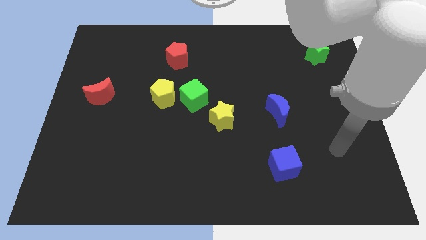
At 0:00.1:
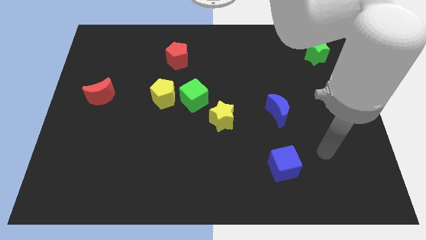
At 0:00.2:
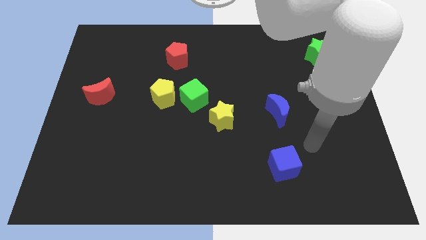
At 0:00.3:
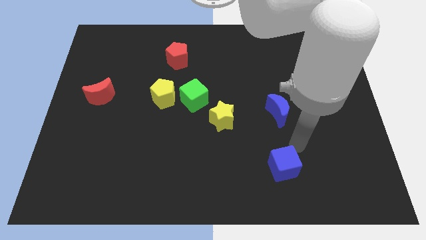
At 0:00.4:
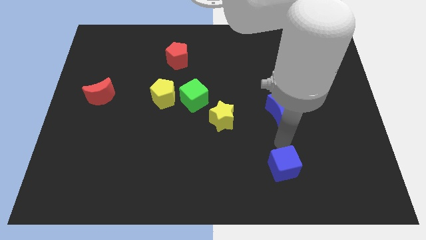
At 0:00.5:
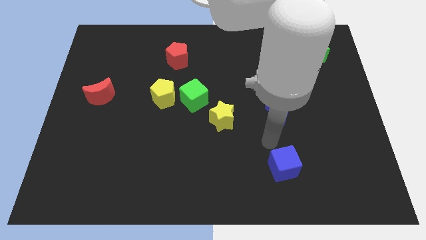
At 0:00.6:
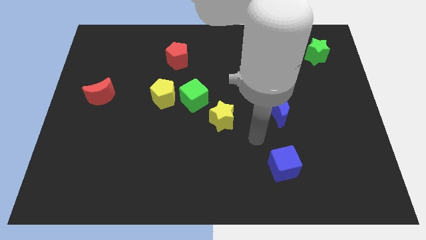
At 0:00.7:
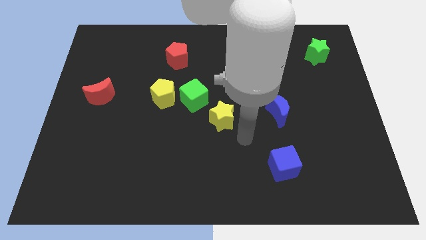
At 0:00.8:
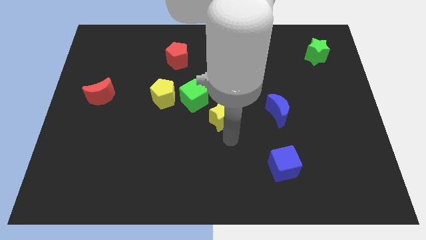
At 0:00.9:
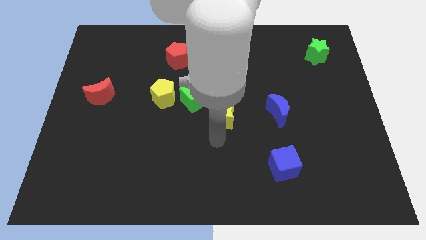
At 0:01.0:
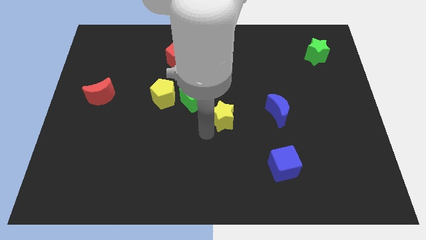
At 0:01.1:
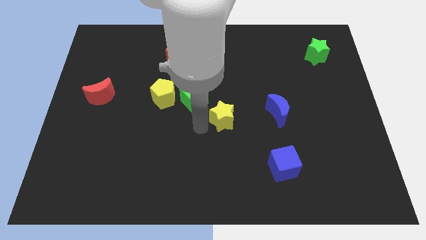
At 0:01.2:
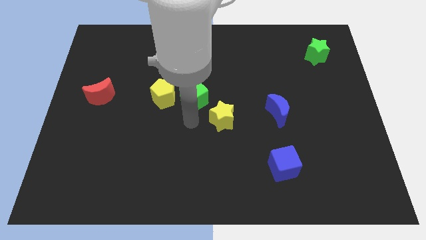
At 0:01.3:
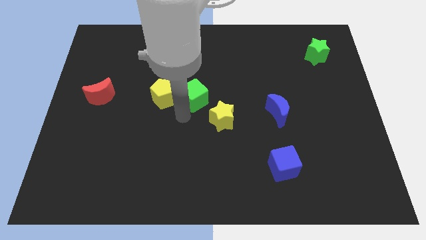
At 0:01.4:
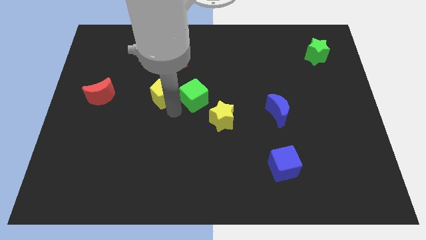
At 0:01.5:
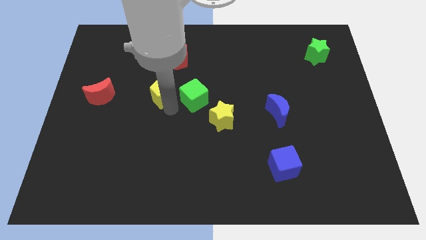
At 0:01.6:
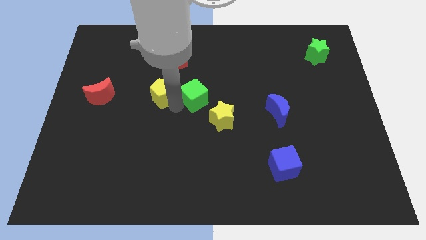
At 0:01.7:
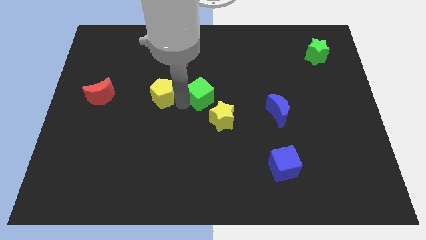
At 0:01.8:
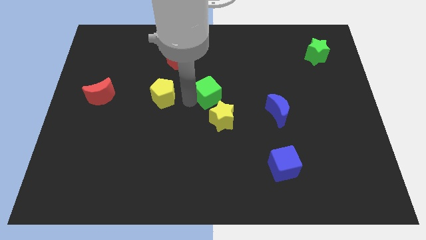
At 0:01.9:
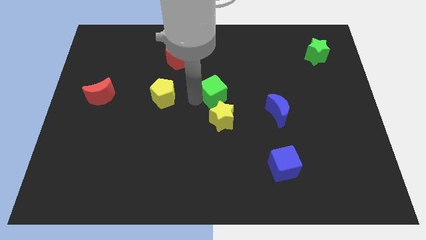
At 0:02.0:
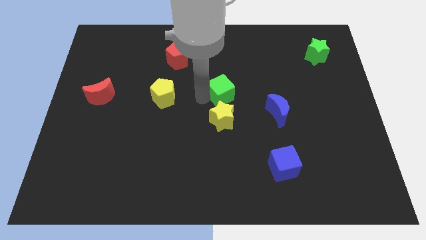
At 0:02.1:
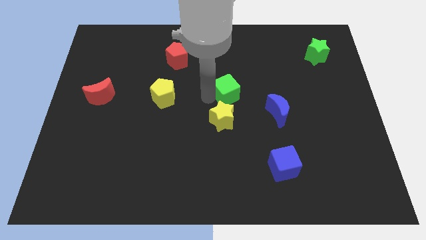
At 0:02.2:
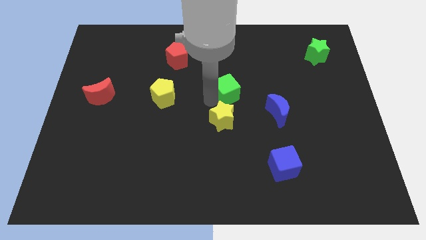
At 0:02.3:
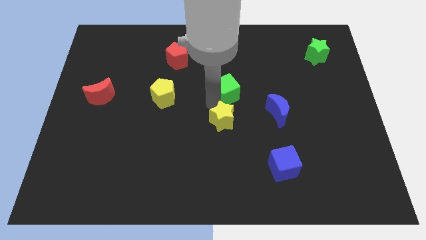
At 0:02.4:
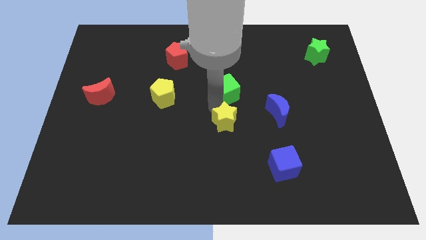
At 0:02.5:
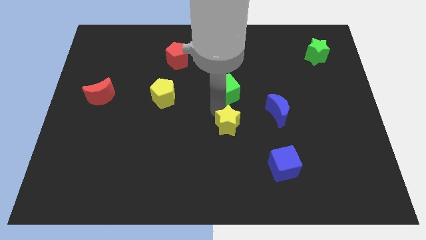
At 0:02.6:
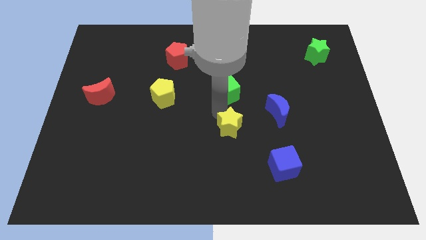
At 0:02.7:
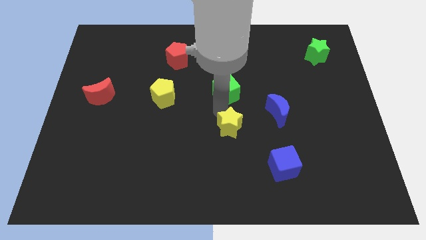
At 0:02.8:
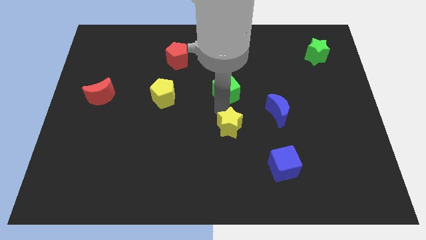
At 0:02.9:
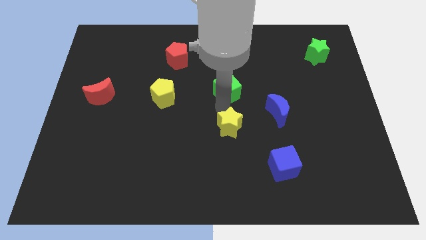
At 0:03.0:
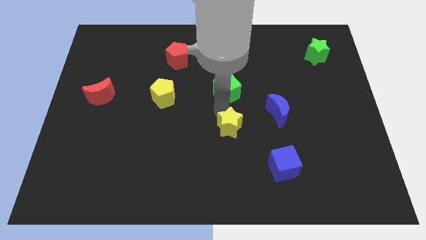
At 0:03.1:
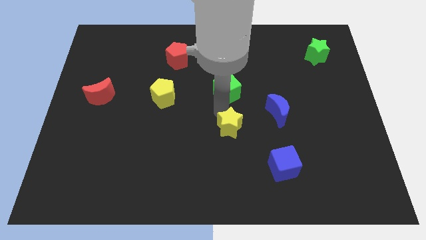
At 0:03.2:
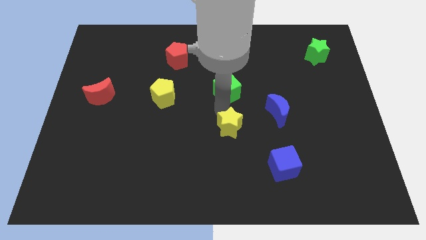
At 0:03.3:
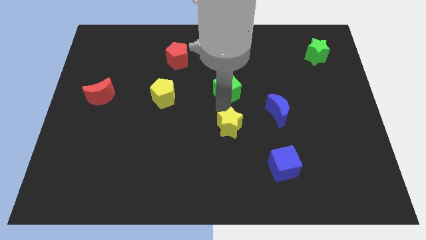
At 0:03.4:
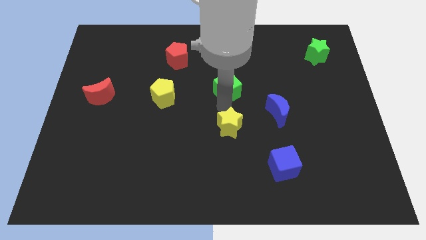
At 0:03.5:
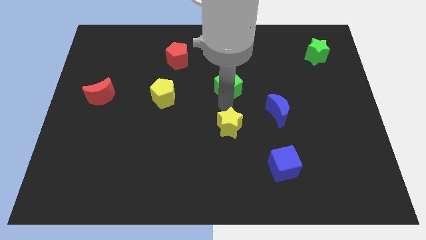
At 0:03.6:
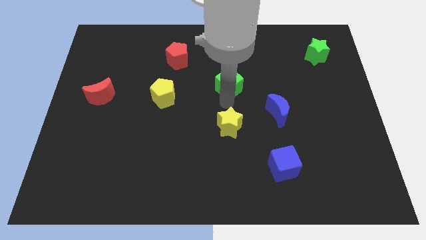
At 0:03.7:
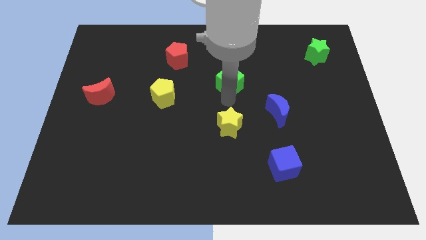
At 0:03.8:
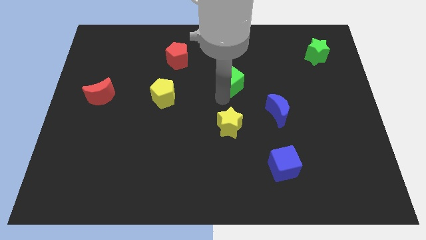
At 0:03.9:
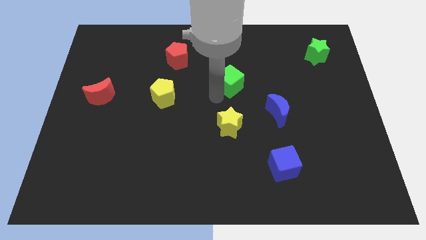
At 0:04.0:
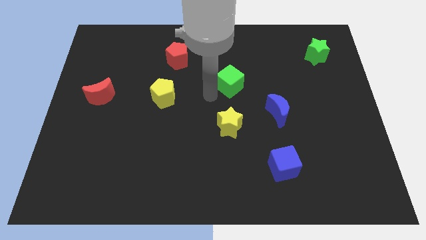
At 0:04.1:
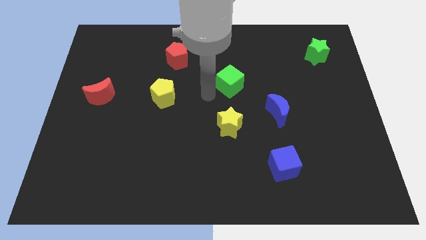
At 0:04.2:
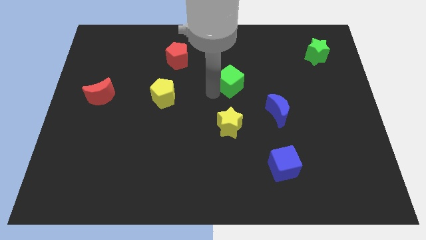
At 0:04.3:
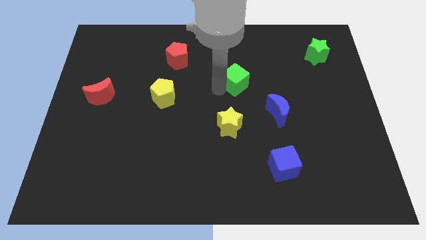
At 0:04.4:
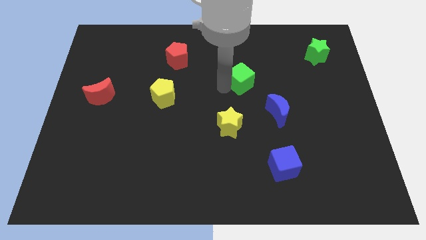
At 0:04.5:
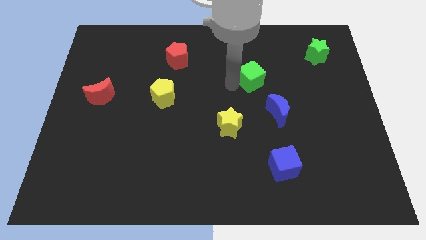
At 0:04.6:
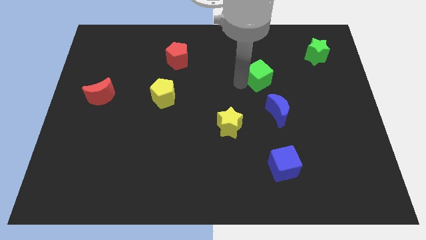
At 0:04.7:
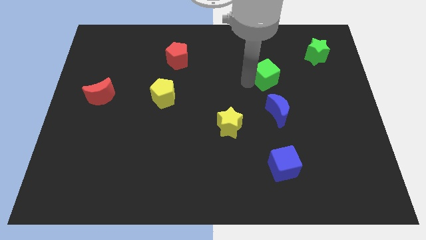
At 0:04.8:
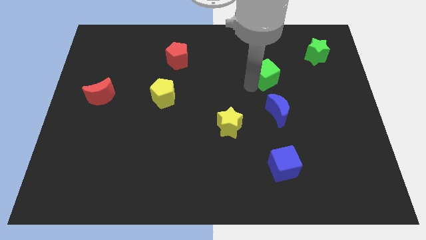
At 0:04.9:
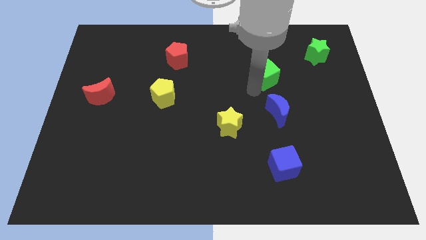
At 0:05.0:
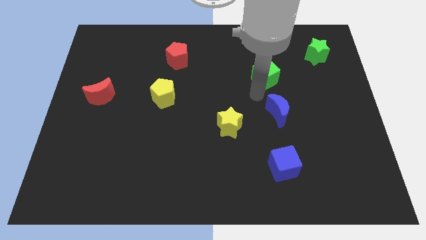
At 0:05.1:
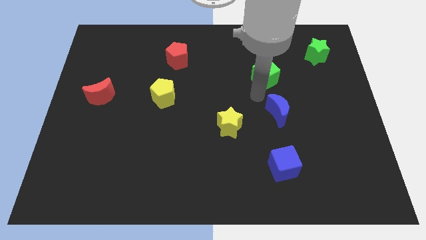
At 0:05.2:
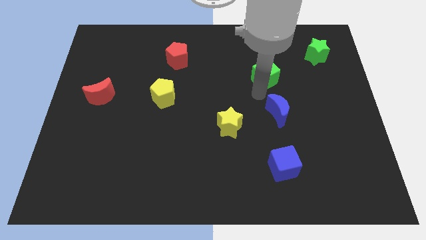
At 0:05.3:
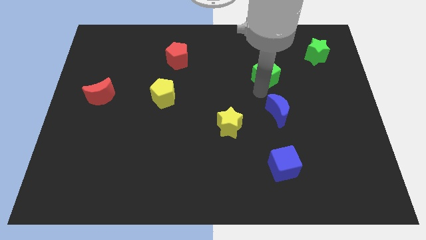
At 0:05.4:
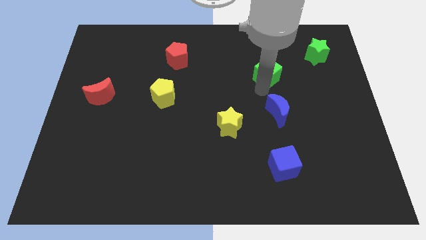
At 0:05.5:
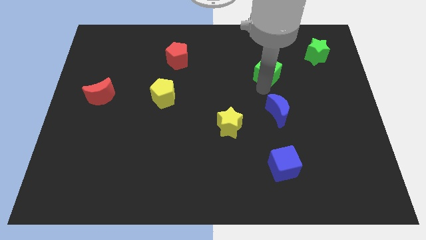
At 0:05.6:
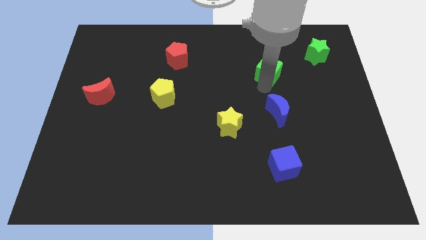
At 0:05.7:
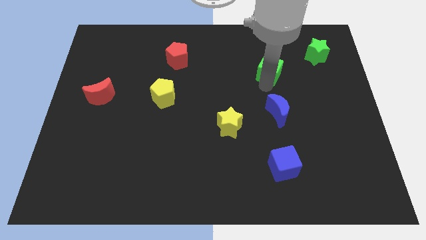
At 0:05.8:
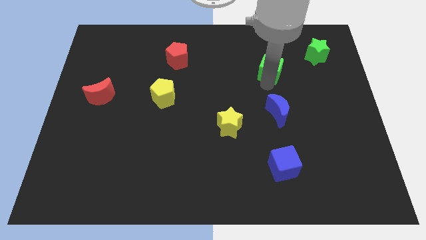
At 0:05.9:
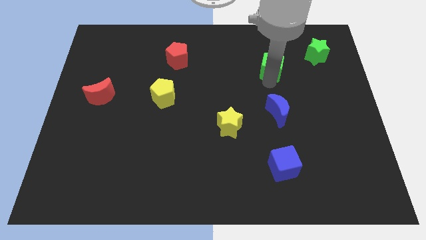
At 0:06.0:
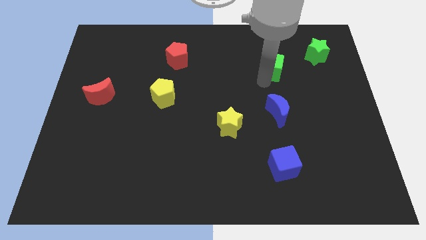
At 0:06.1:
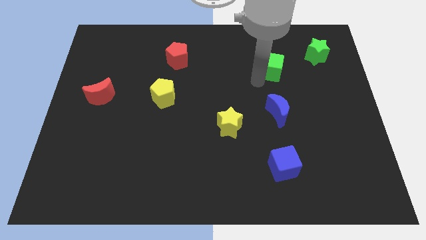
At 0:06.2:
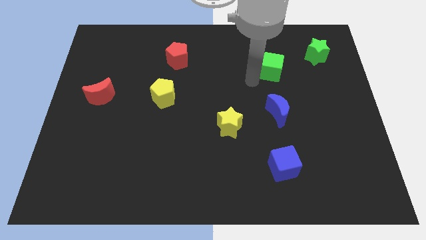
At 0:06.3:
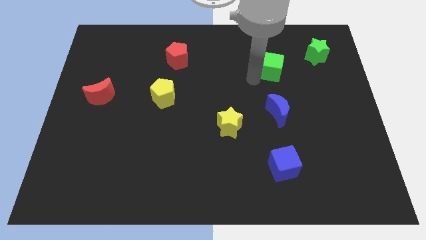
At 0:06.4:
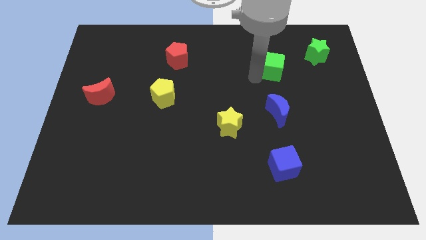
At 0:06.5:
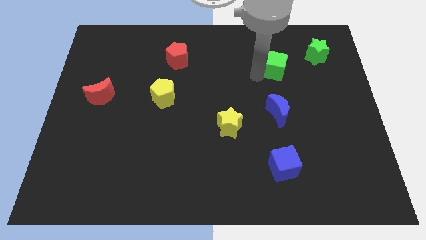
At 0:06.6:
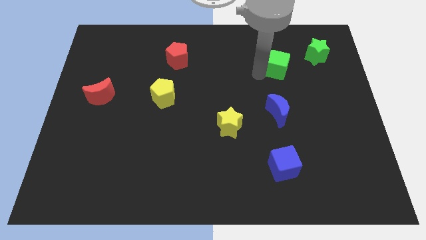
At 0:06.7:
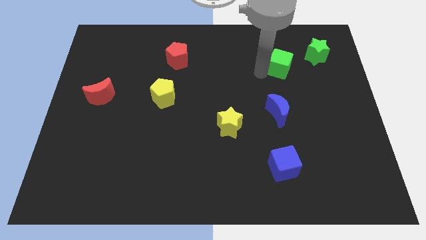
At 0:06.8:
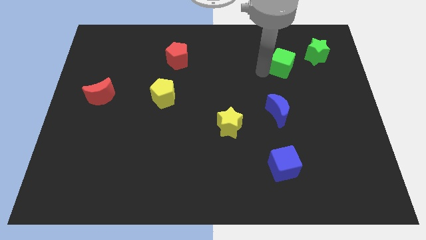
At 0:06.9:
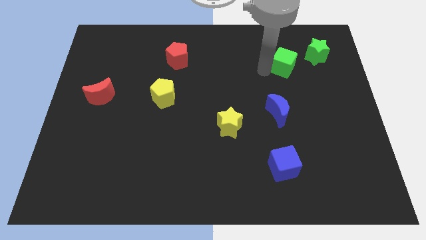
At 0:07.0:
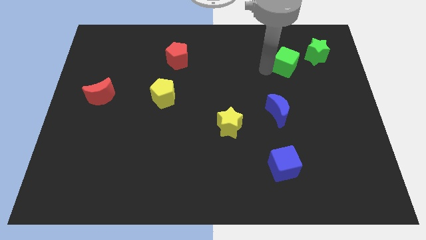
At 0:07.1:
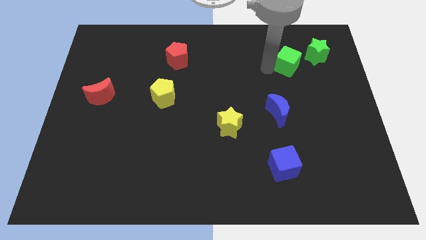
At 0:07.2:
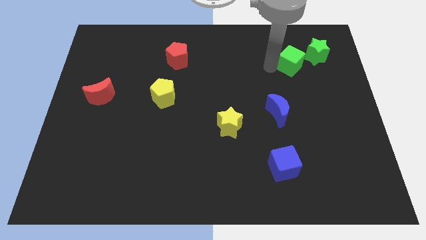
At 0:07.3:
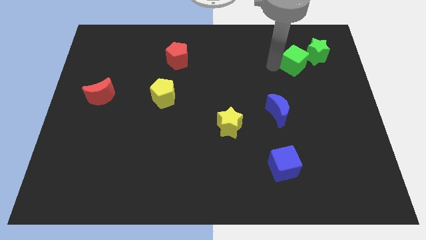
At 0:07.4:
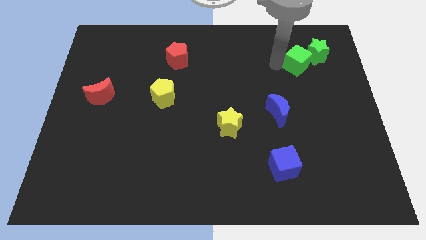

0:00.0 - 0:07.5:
move the green cube to the green star

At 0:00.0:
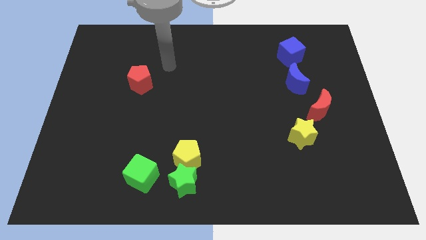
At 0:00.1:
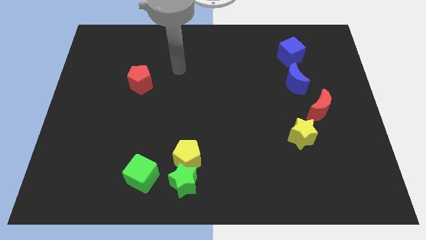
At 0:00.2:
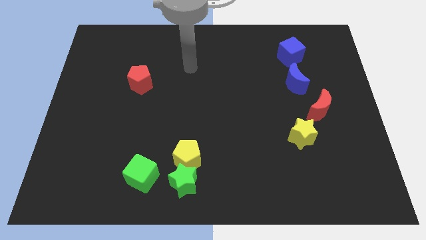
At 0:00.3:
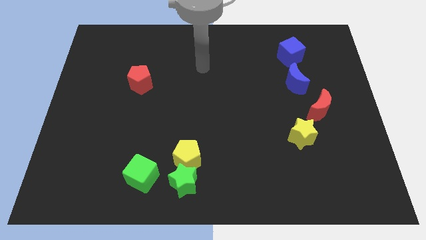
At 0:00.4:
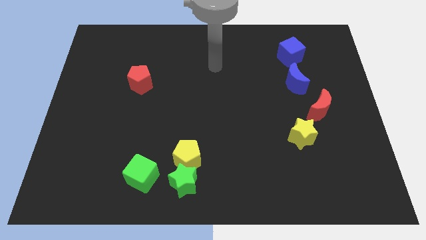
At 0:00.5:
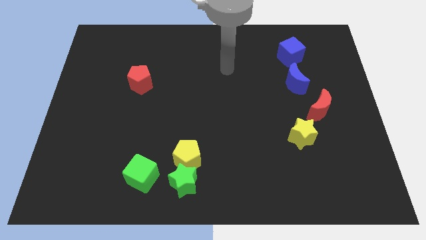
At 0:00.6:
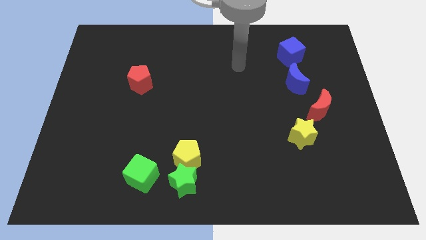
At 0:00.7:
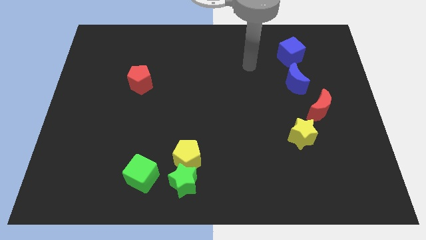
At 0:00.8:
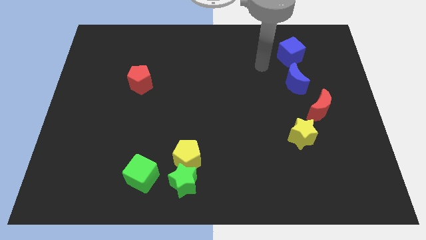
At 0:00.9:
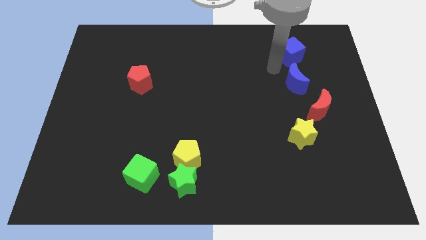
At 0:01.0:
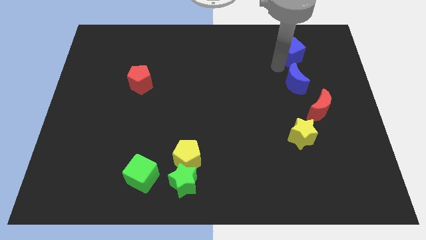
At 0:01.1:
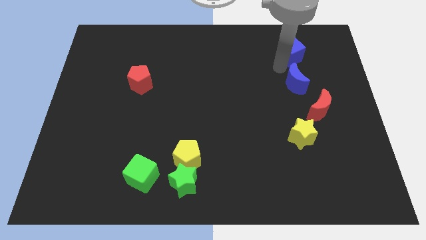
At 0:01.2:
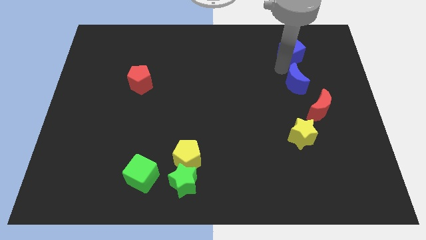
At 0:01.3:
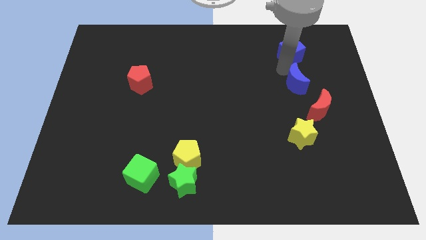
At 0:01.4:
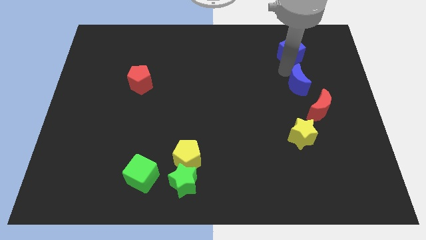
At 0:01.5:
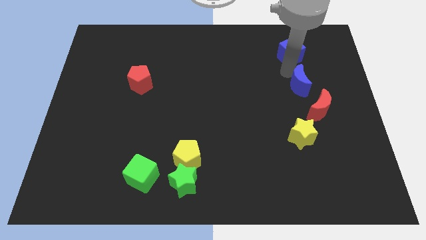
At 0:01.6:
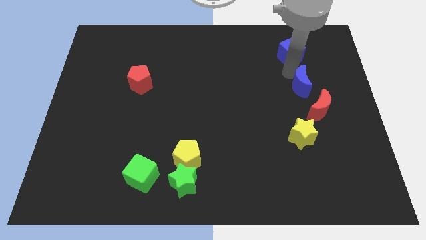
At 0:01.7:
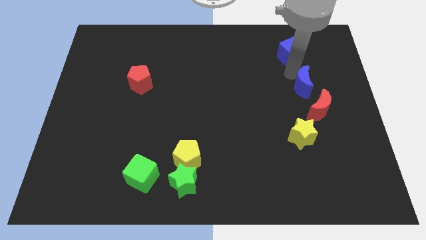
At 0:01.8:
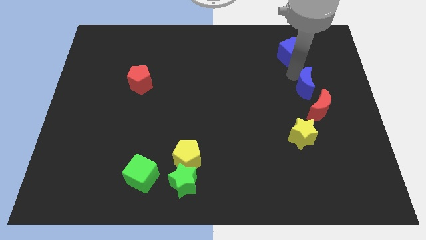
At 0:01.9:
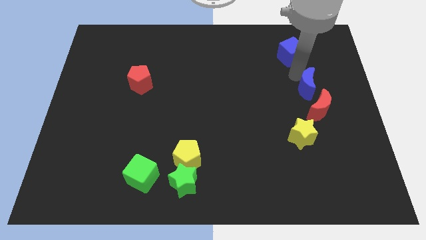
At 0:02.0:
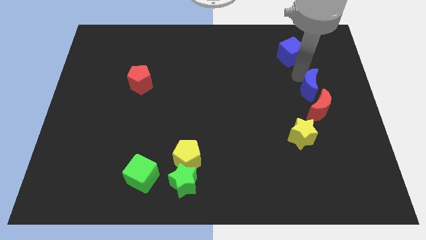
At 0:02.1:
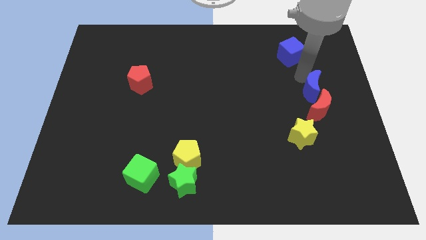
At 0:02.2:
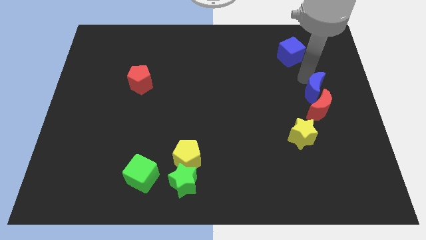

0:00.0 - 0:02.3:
slide the blue moon towards the red moon
